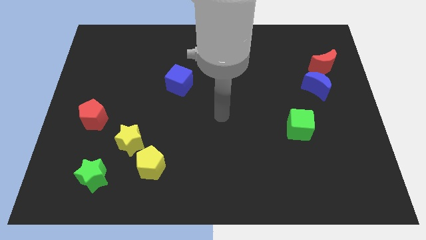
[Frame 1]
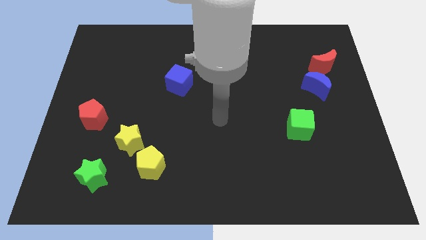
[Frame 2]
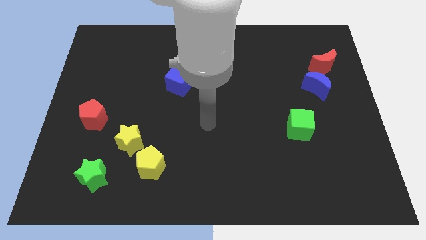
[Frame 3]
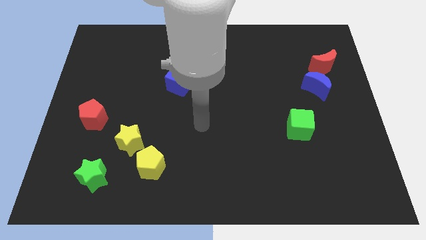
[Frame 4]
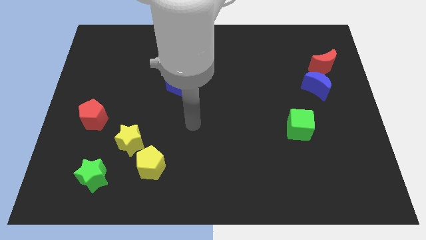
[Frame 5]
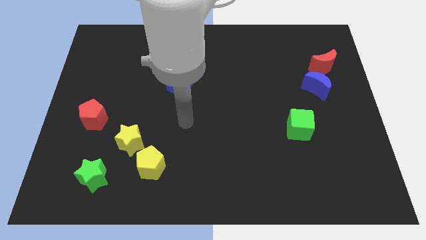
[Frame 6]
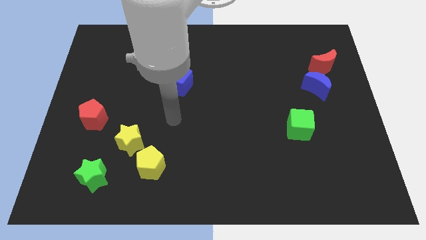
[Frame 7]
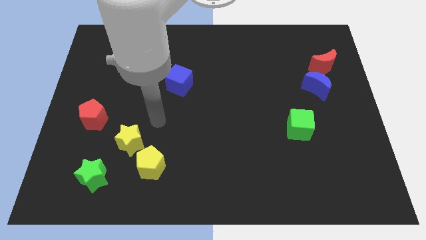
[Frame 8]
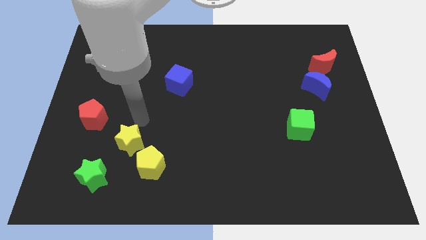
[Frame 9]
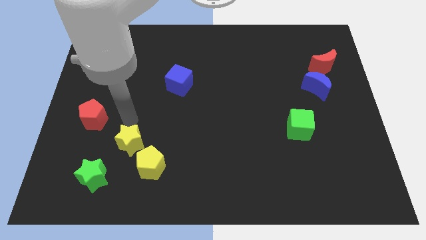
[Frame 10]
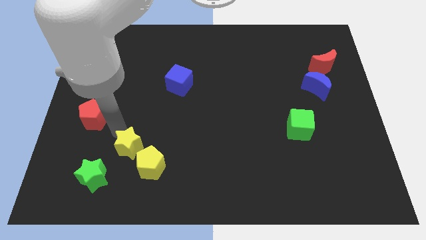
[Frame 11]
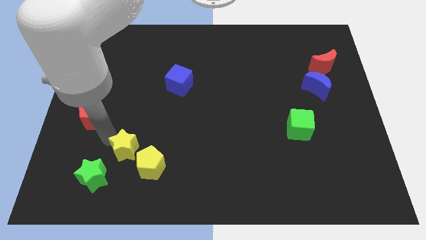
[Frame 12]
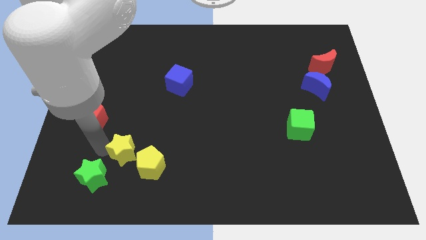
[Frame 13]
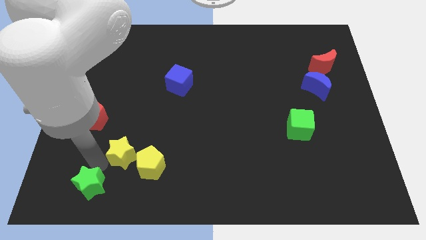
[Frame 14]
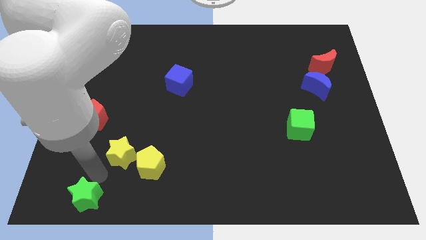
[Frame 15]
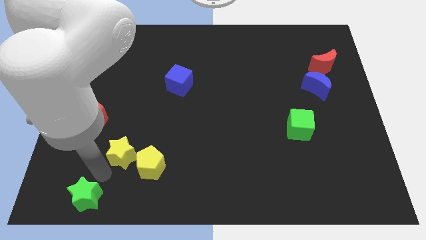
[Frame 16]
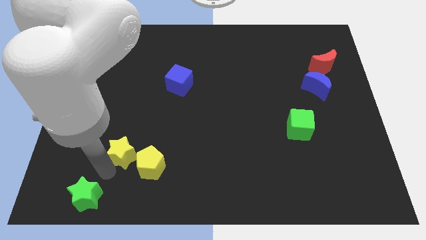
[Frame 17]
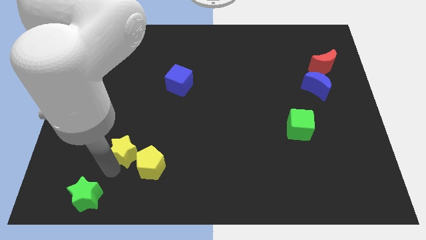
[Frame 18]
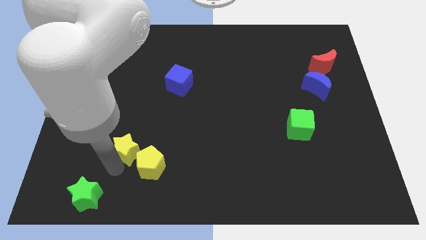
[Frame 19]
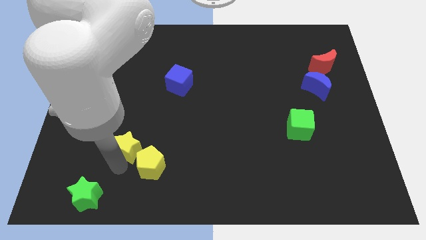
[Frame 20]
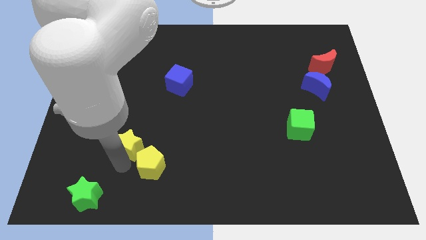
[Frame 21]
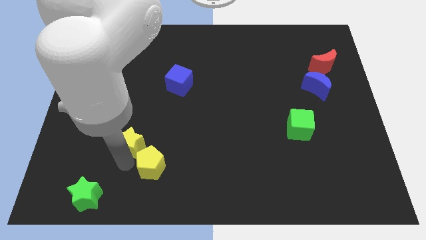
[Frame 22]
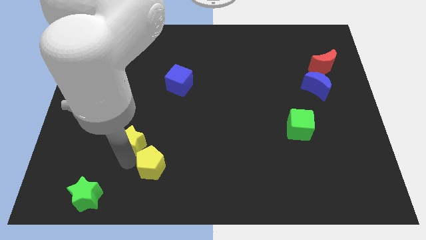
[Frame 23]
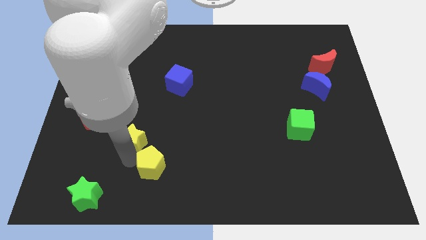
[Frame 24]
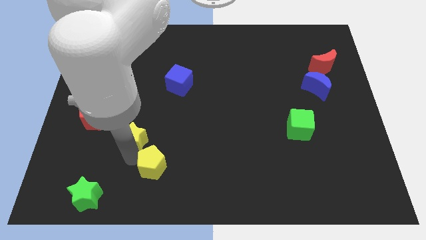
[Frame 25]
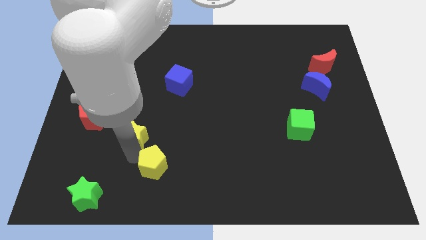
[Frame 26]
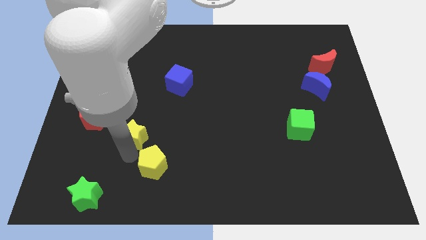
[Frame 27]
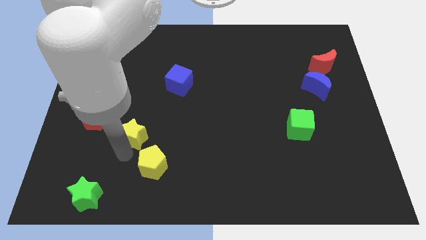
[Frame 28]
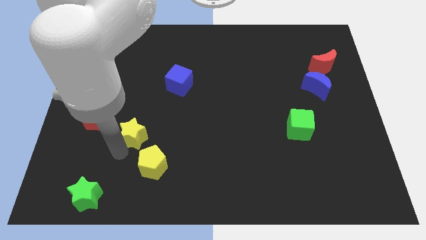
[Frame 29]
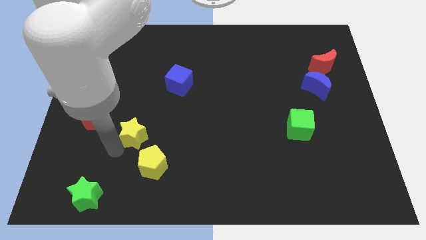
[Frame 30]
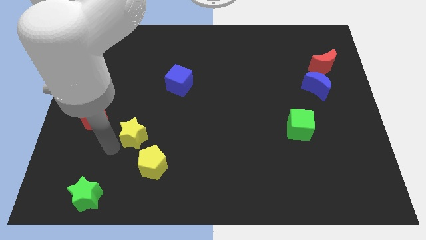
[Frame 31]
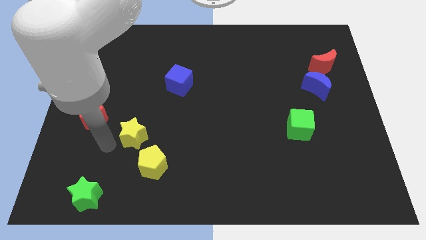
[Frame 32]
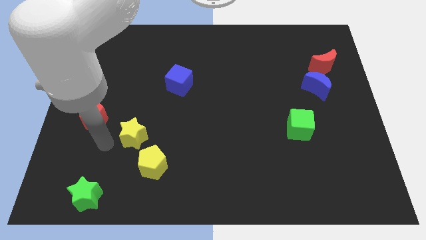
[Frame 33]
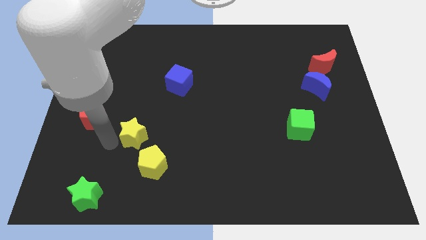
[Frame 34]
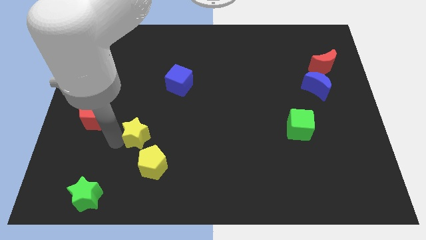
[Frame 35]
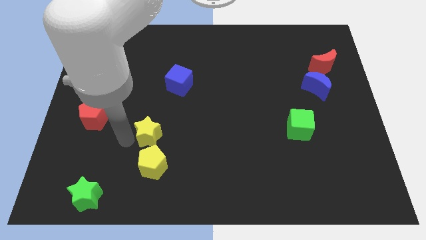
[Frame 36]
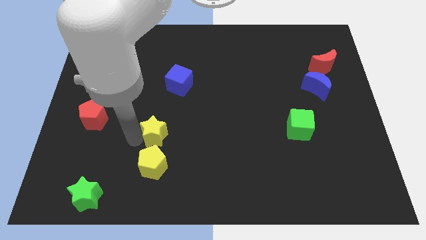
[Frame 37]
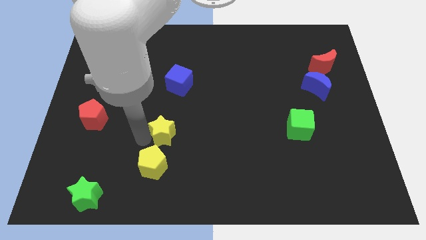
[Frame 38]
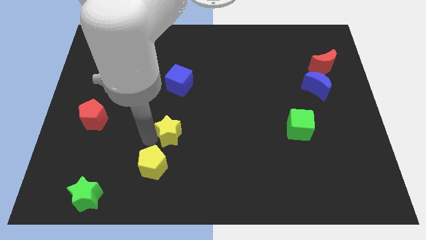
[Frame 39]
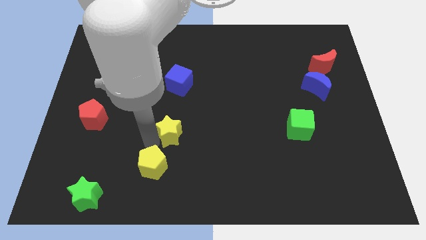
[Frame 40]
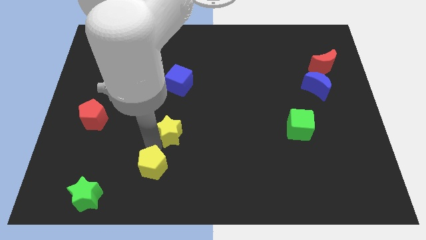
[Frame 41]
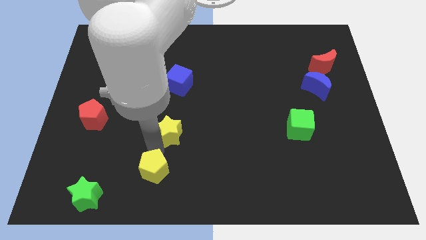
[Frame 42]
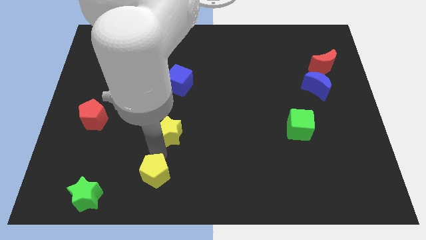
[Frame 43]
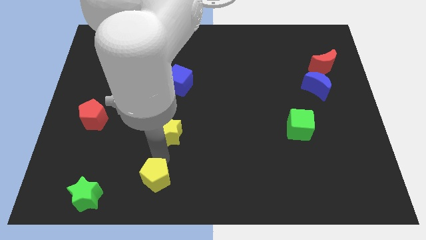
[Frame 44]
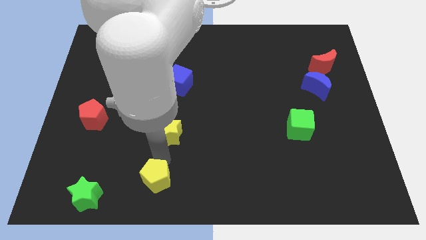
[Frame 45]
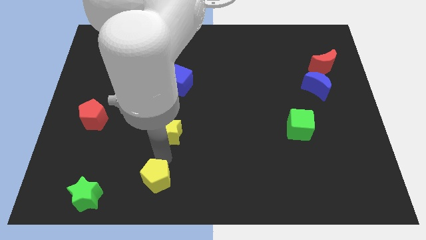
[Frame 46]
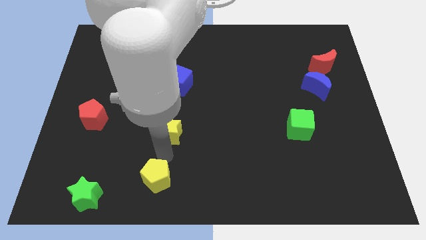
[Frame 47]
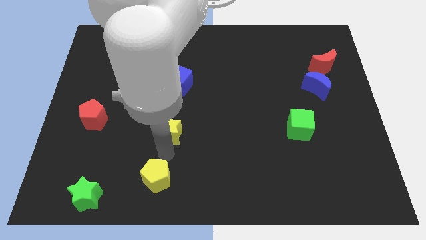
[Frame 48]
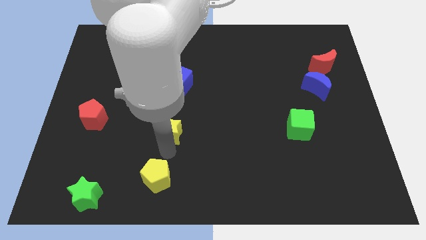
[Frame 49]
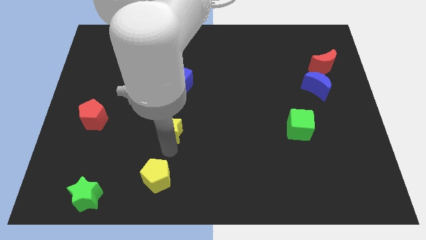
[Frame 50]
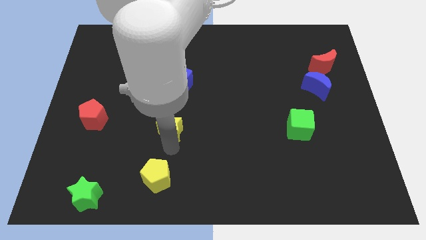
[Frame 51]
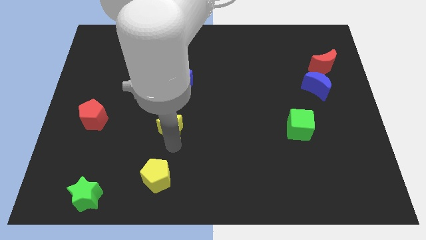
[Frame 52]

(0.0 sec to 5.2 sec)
push the yellow star to the center of the board
